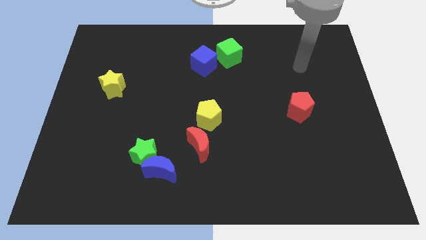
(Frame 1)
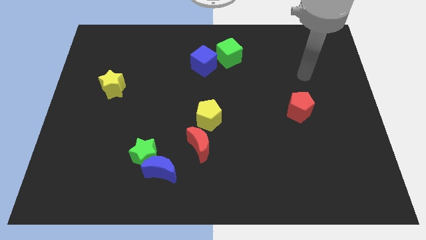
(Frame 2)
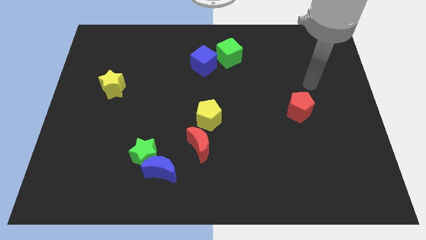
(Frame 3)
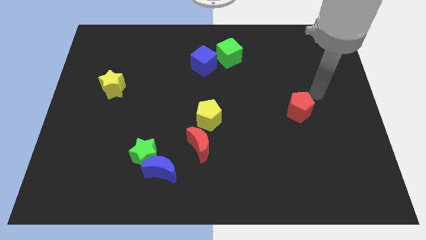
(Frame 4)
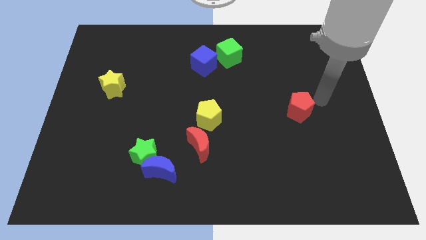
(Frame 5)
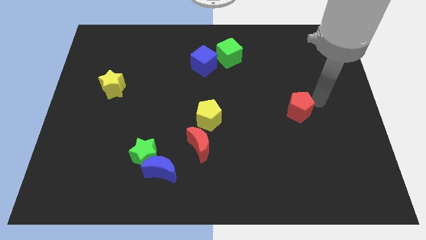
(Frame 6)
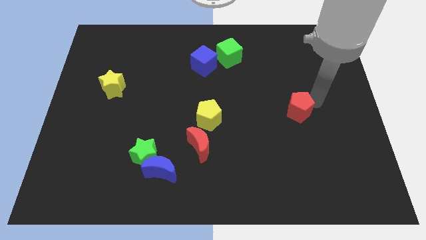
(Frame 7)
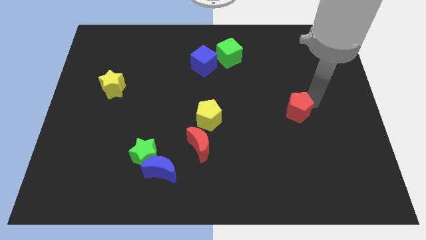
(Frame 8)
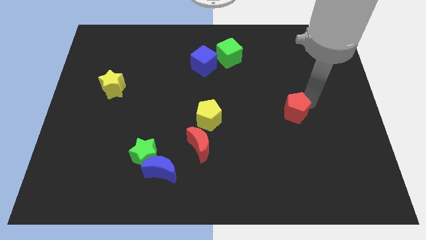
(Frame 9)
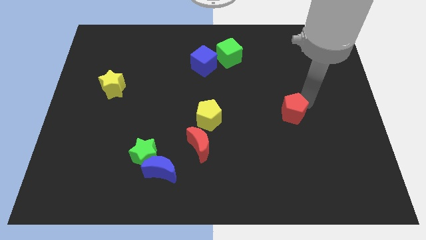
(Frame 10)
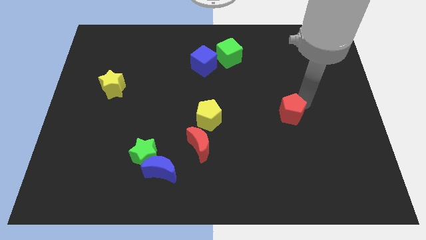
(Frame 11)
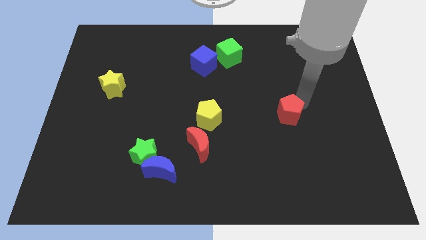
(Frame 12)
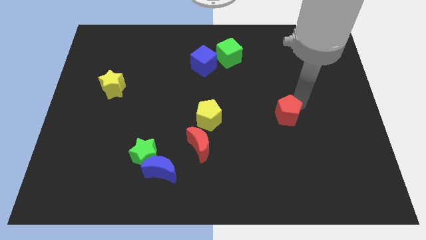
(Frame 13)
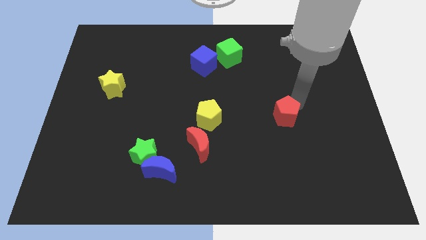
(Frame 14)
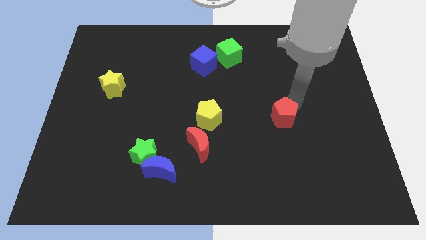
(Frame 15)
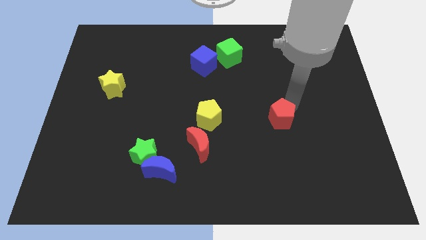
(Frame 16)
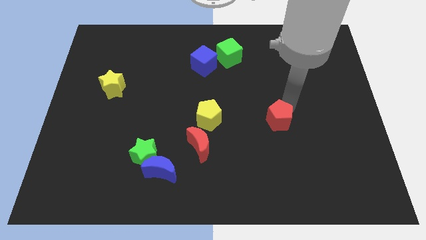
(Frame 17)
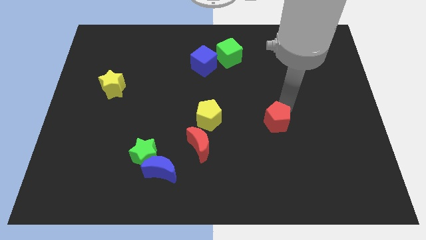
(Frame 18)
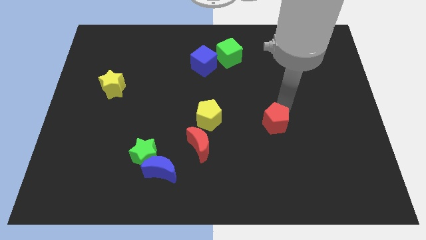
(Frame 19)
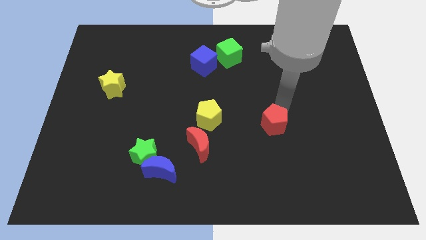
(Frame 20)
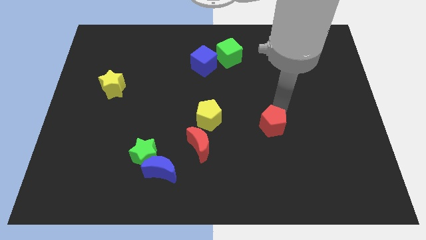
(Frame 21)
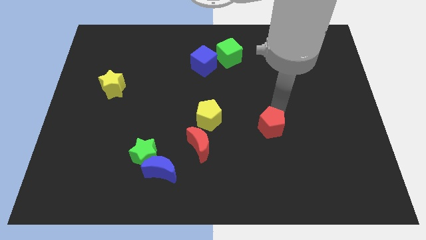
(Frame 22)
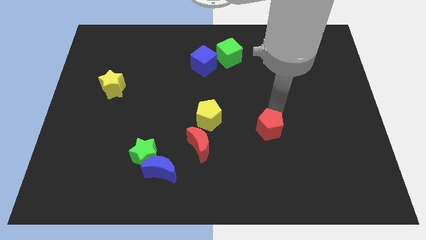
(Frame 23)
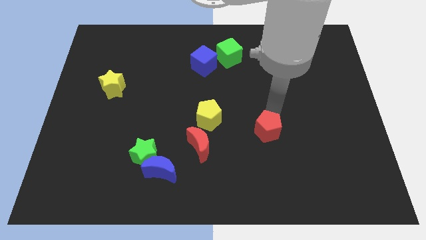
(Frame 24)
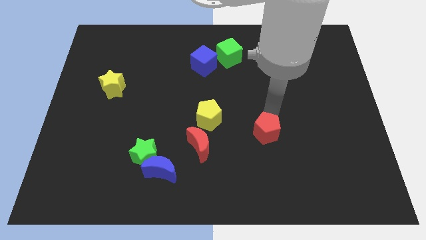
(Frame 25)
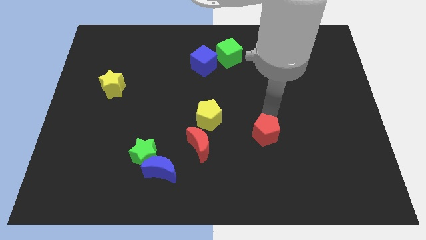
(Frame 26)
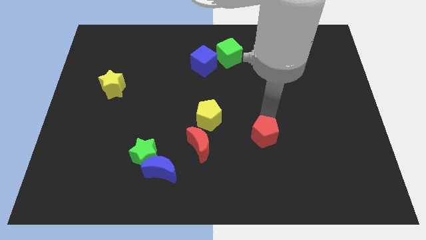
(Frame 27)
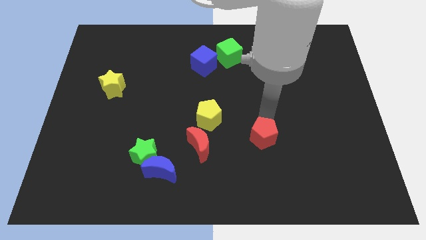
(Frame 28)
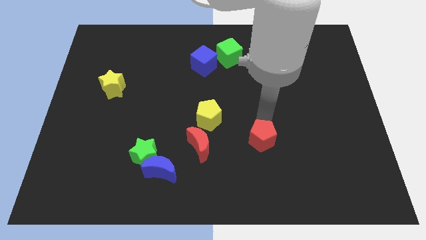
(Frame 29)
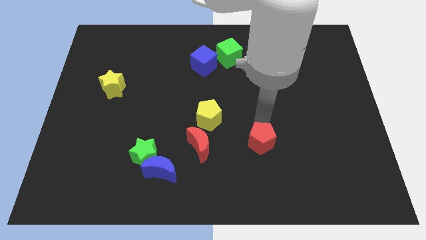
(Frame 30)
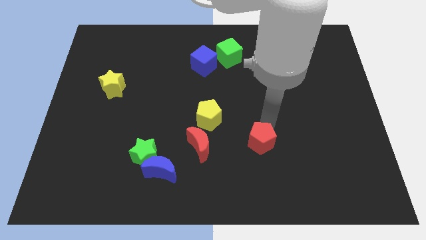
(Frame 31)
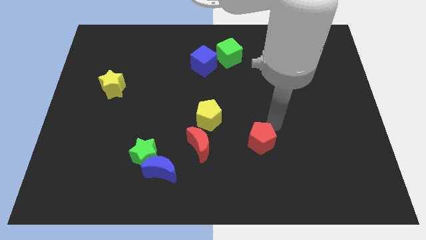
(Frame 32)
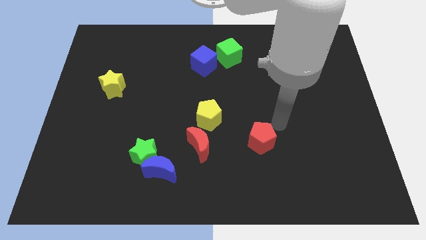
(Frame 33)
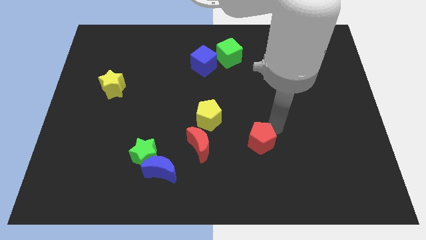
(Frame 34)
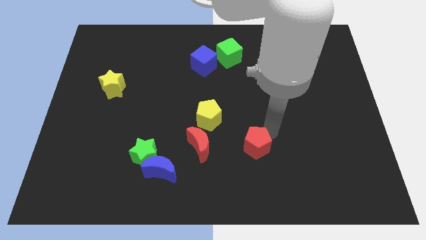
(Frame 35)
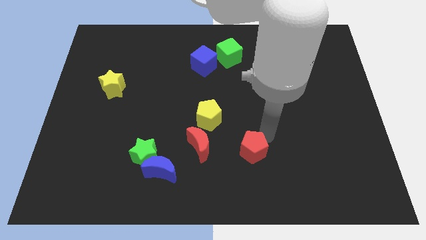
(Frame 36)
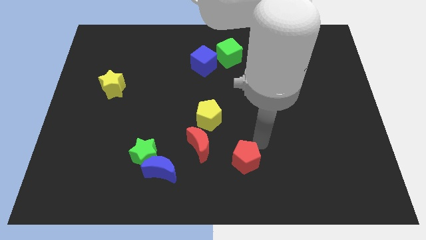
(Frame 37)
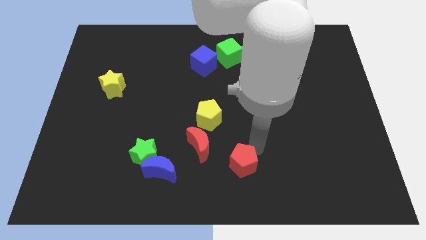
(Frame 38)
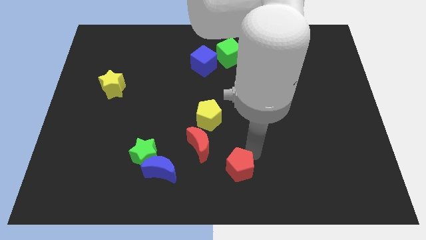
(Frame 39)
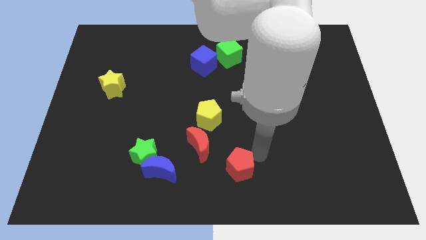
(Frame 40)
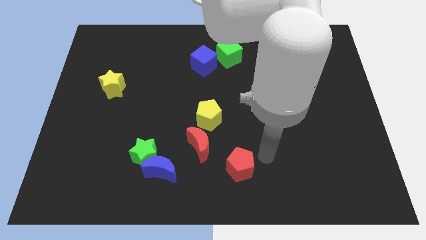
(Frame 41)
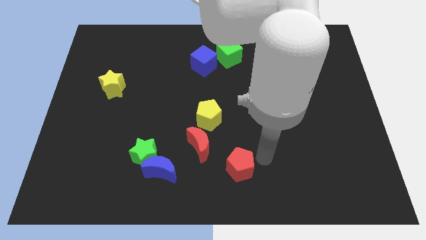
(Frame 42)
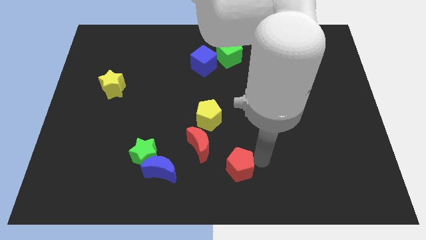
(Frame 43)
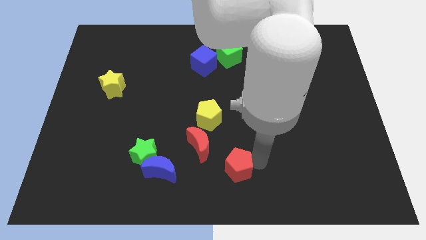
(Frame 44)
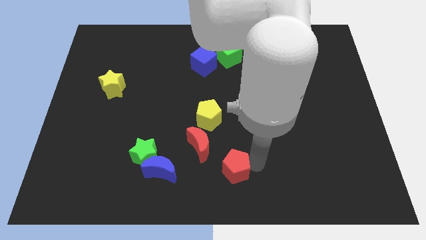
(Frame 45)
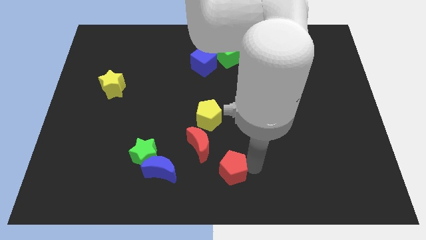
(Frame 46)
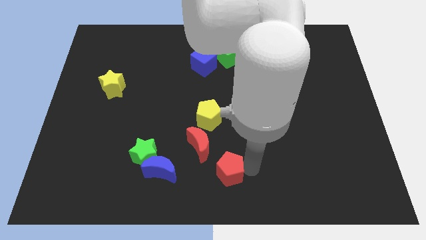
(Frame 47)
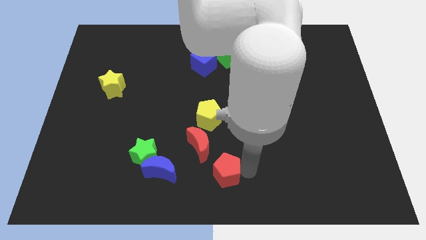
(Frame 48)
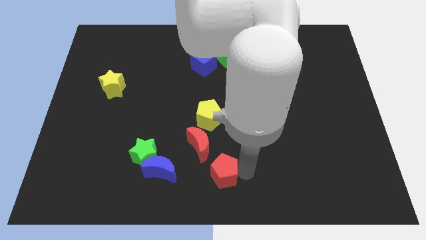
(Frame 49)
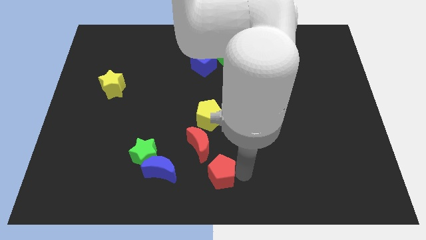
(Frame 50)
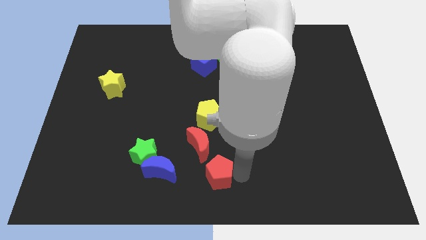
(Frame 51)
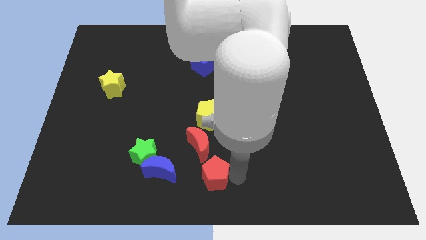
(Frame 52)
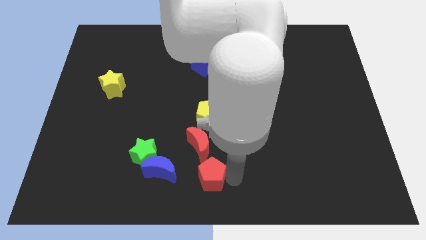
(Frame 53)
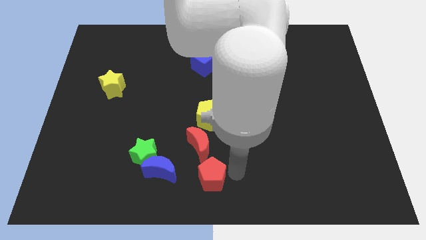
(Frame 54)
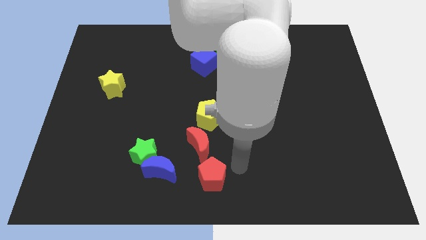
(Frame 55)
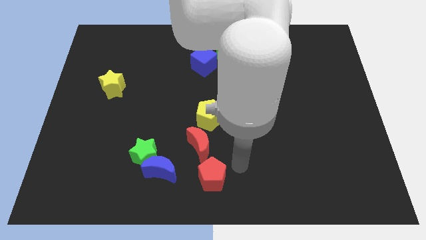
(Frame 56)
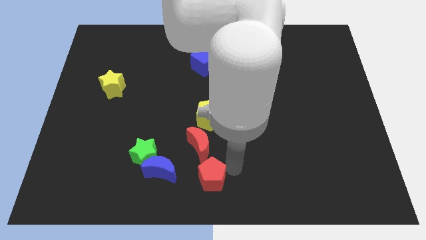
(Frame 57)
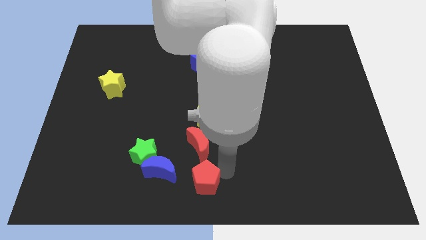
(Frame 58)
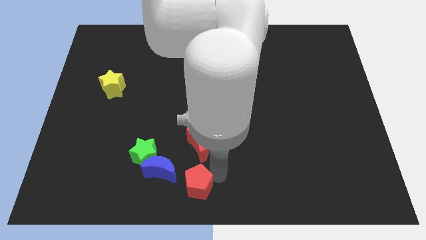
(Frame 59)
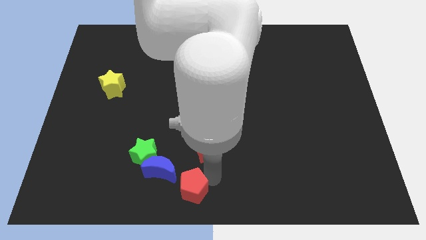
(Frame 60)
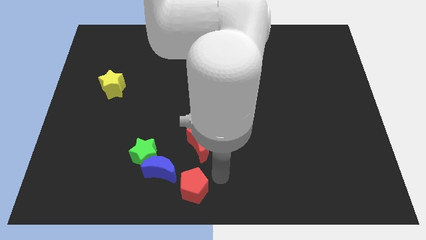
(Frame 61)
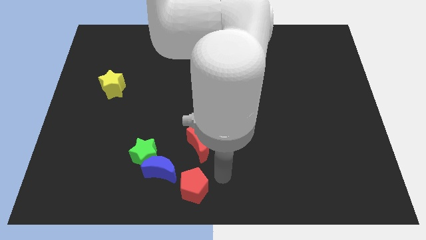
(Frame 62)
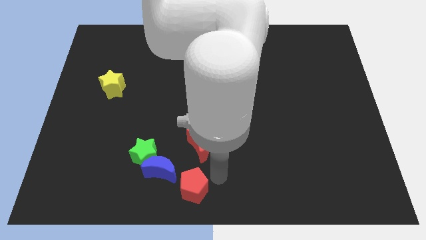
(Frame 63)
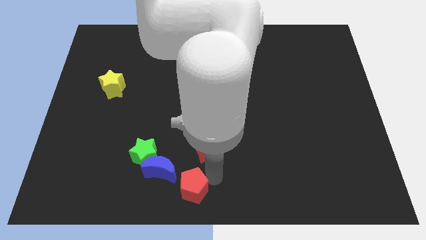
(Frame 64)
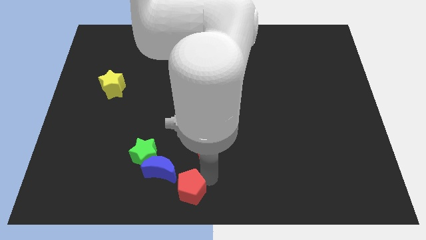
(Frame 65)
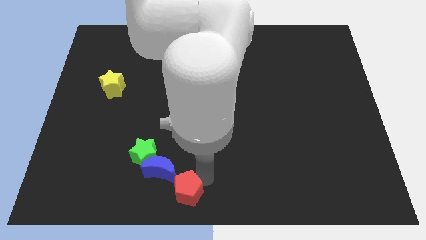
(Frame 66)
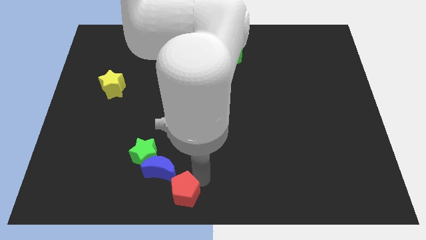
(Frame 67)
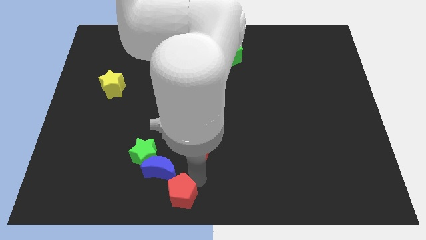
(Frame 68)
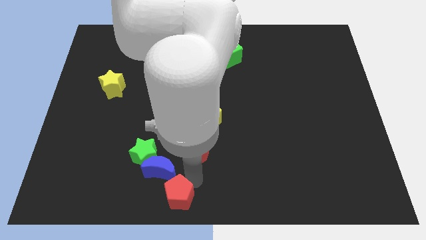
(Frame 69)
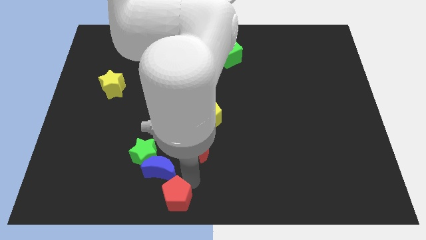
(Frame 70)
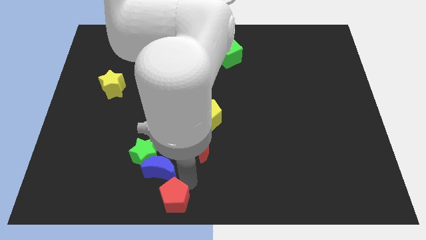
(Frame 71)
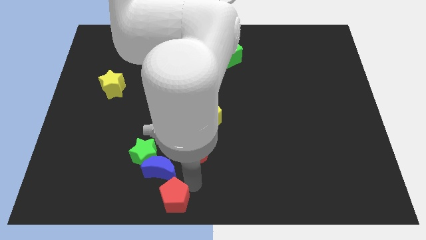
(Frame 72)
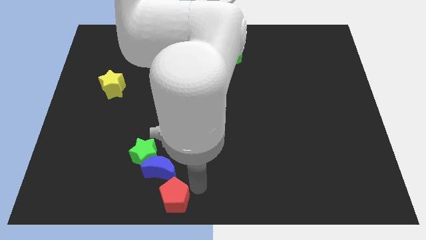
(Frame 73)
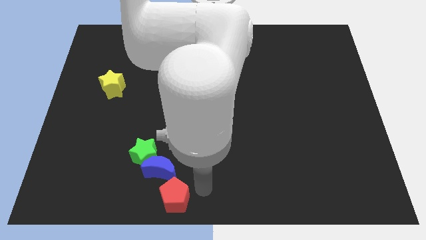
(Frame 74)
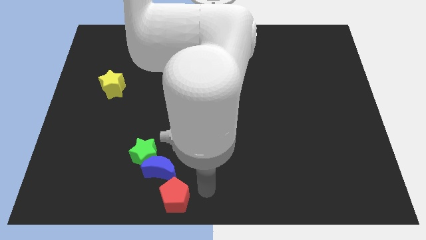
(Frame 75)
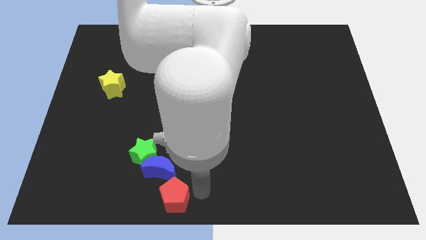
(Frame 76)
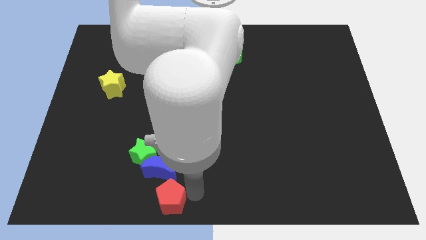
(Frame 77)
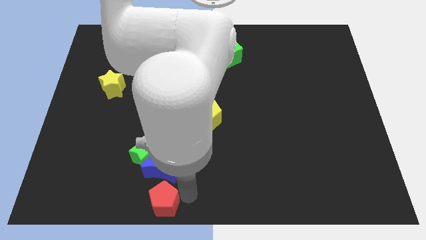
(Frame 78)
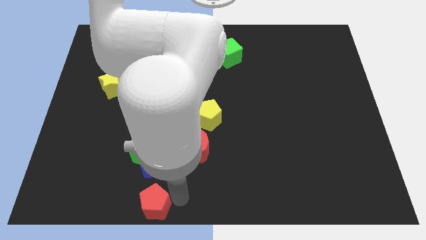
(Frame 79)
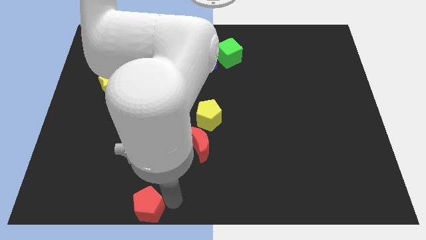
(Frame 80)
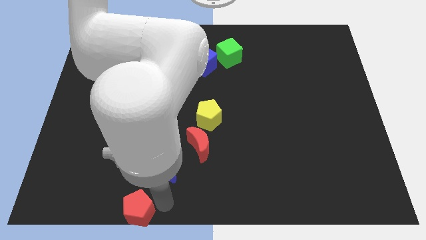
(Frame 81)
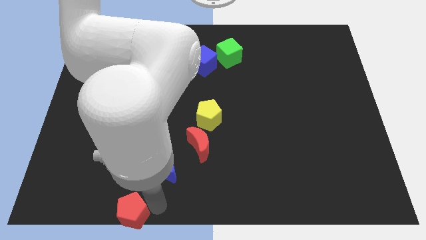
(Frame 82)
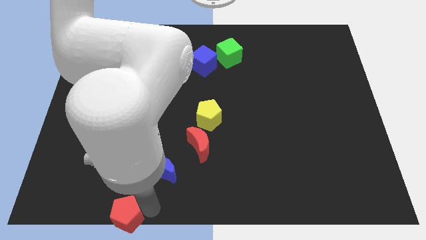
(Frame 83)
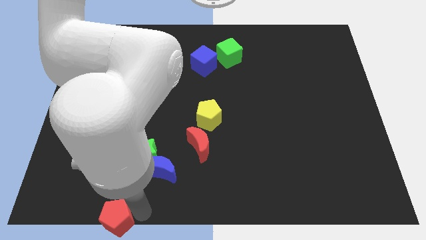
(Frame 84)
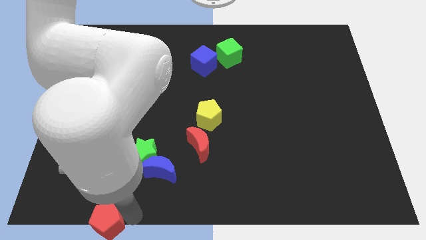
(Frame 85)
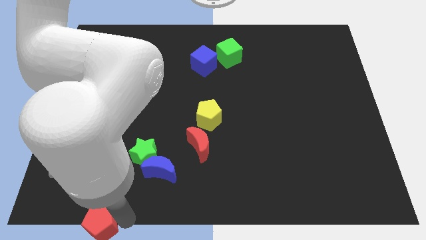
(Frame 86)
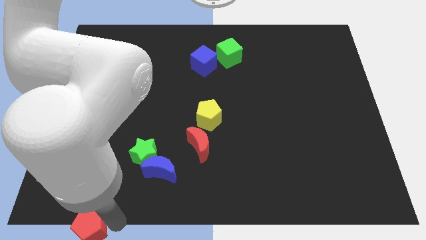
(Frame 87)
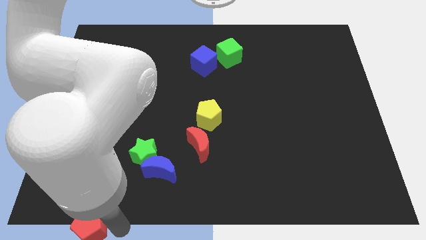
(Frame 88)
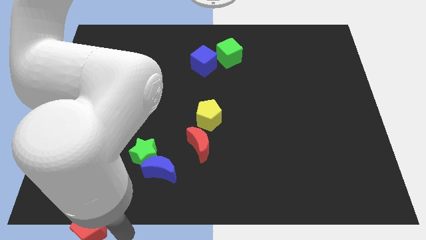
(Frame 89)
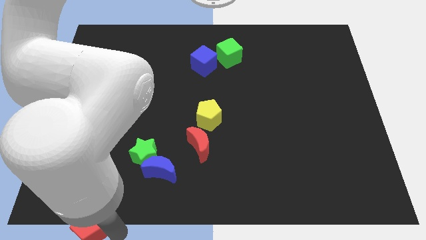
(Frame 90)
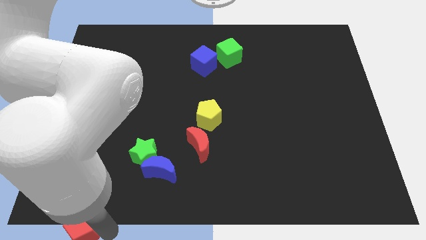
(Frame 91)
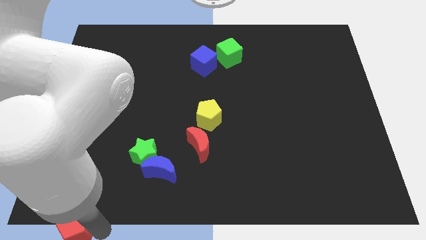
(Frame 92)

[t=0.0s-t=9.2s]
push the red pentagon to the bottom left
